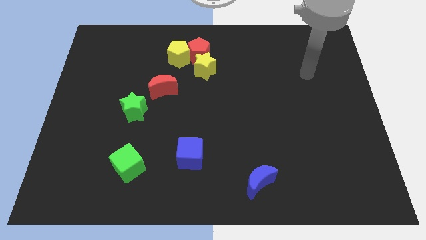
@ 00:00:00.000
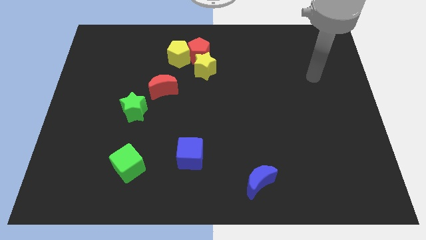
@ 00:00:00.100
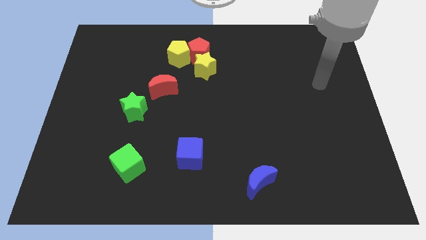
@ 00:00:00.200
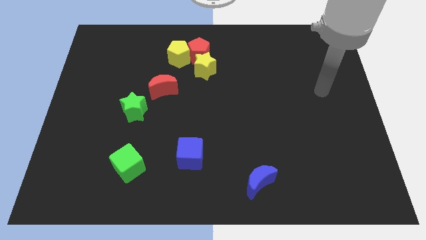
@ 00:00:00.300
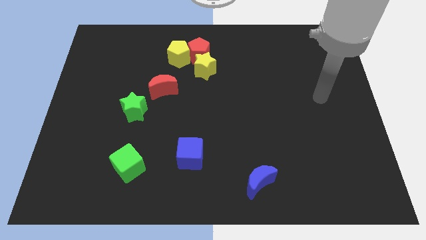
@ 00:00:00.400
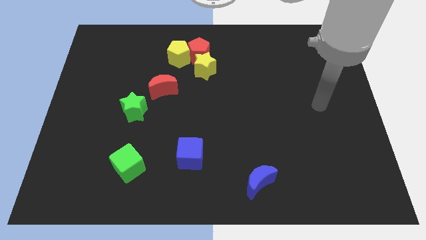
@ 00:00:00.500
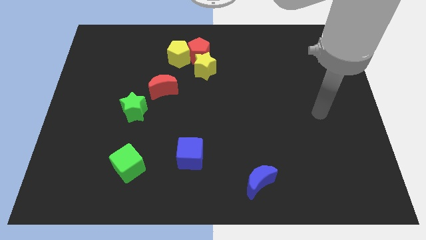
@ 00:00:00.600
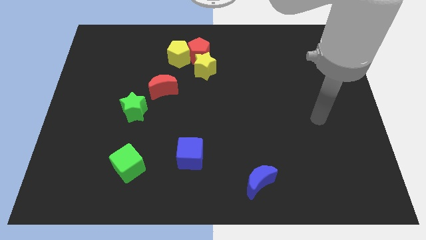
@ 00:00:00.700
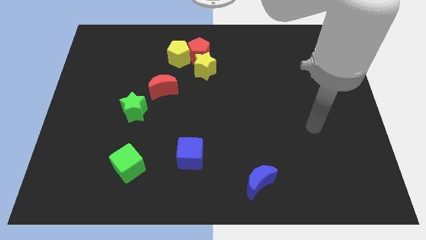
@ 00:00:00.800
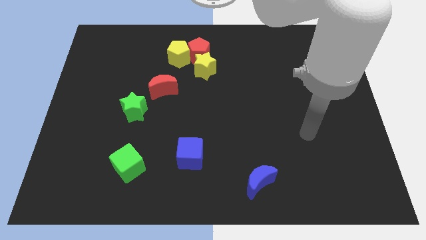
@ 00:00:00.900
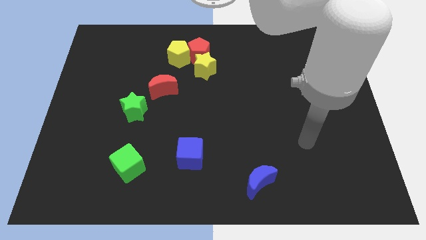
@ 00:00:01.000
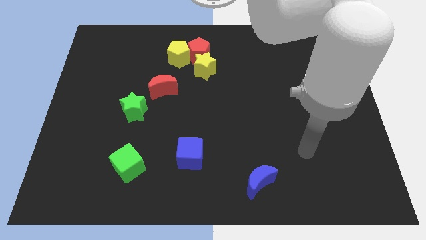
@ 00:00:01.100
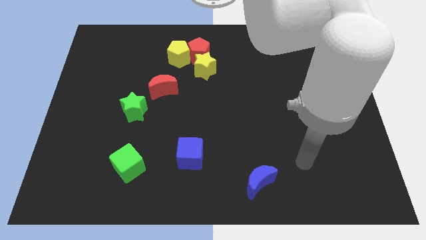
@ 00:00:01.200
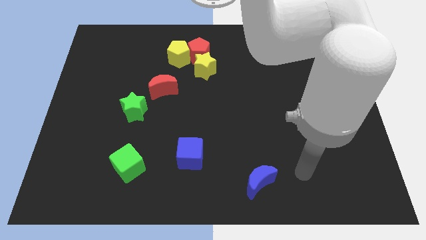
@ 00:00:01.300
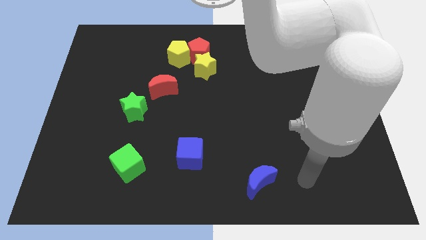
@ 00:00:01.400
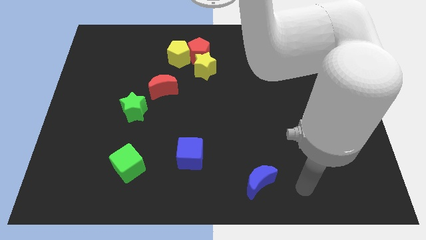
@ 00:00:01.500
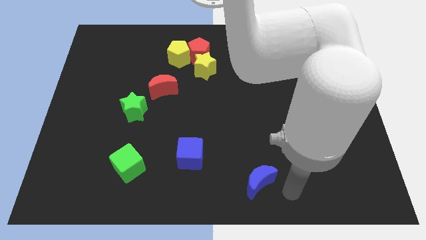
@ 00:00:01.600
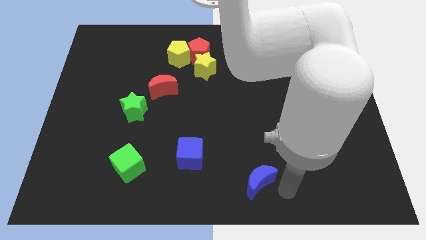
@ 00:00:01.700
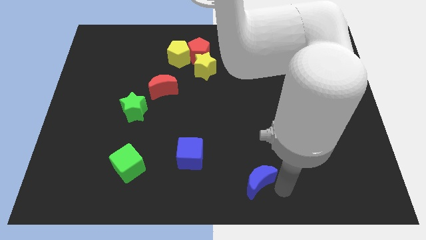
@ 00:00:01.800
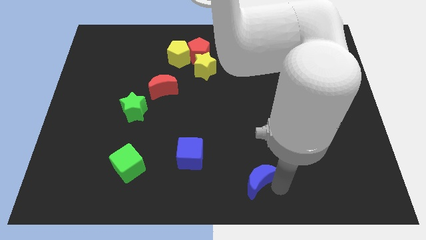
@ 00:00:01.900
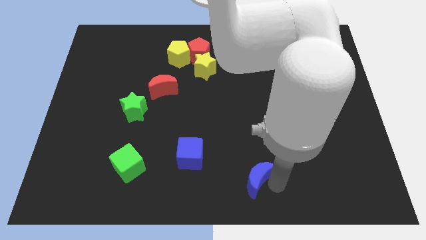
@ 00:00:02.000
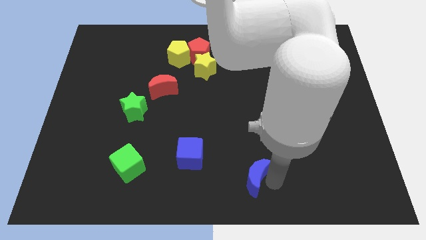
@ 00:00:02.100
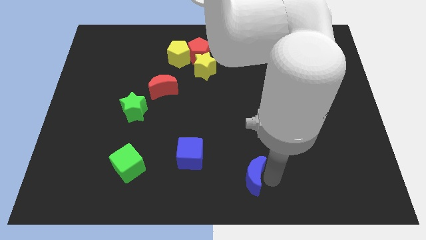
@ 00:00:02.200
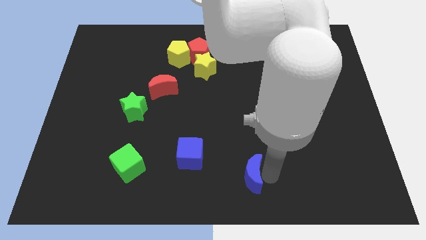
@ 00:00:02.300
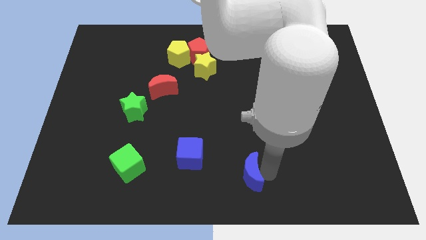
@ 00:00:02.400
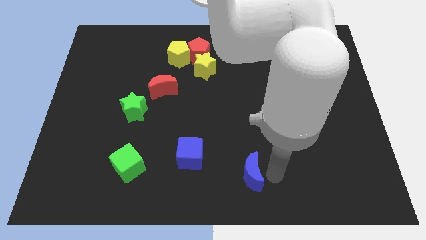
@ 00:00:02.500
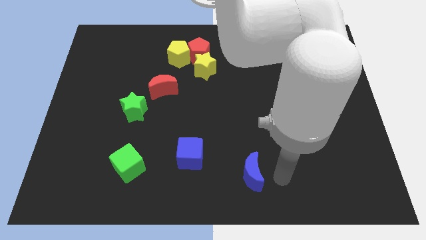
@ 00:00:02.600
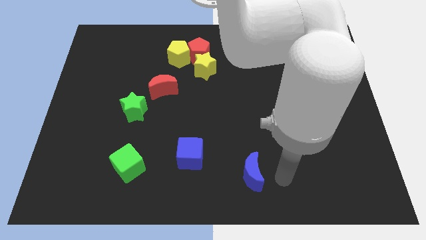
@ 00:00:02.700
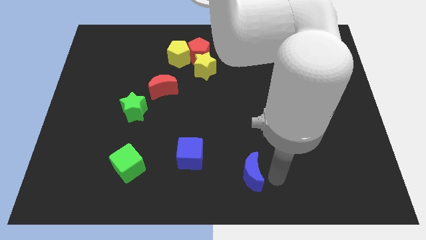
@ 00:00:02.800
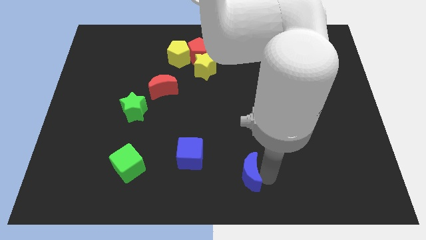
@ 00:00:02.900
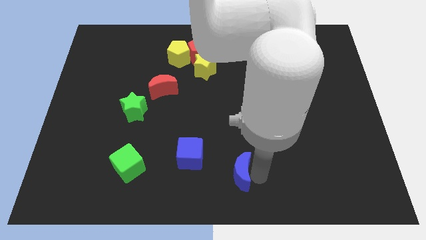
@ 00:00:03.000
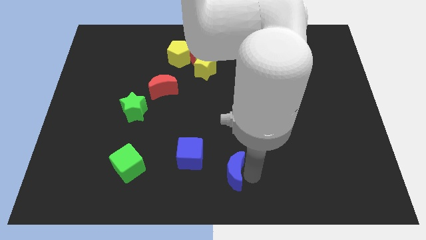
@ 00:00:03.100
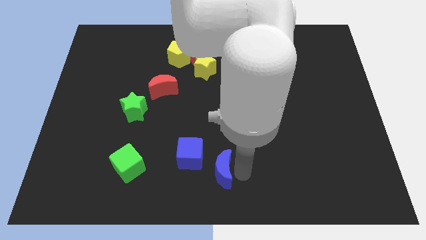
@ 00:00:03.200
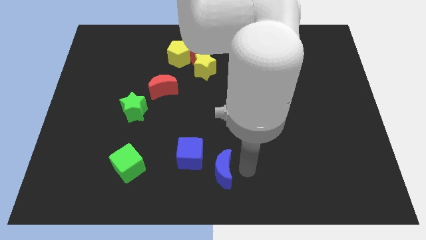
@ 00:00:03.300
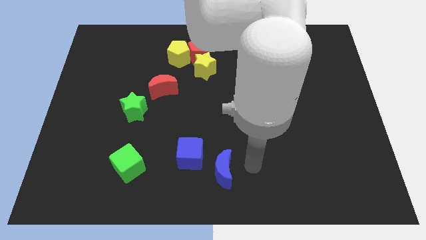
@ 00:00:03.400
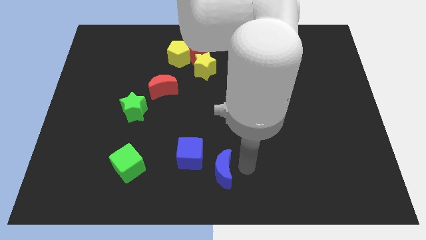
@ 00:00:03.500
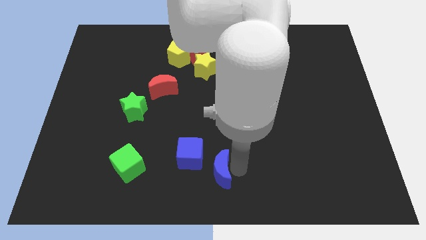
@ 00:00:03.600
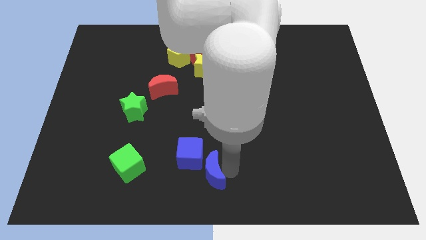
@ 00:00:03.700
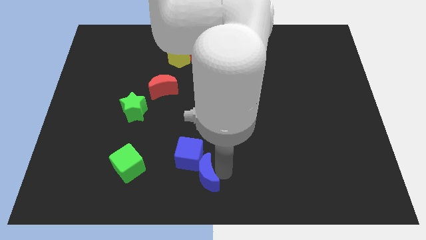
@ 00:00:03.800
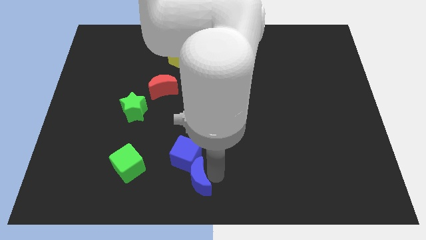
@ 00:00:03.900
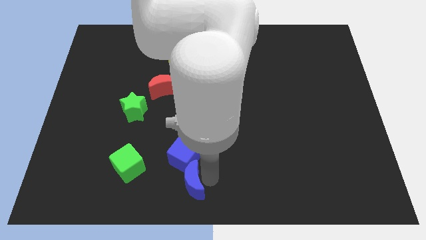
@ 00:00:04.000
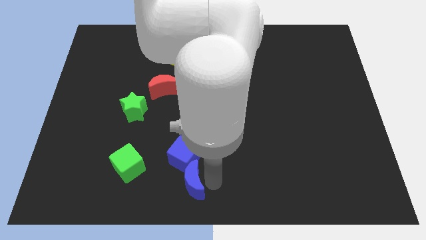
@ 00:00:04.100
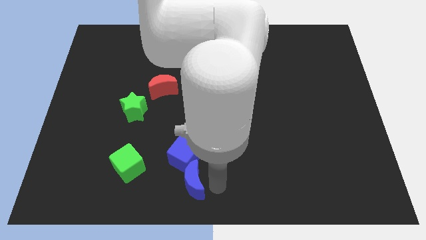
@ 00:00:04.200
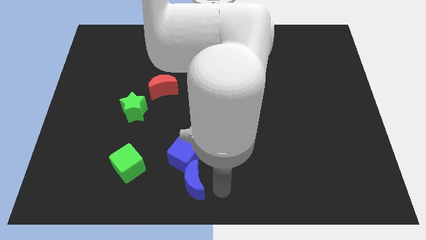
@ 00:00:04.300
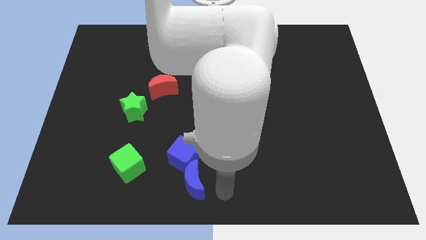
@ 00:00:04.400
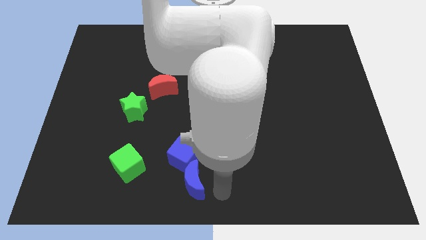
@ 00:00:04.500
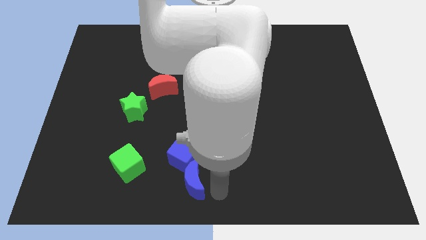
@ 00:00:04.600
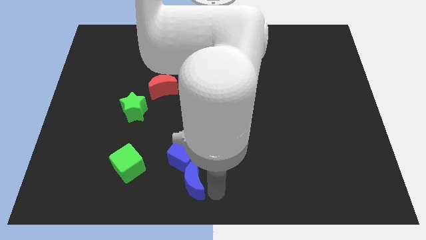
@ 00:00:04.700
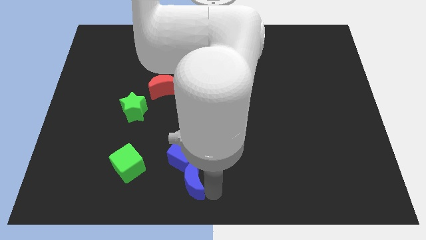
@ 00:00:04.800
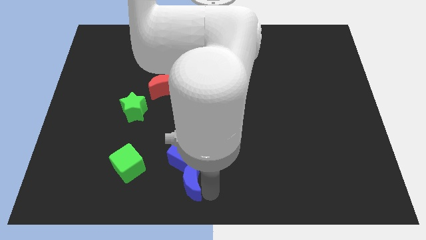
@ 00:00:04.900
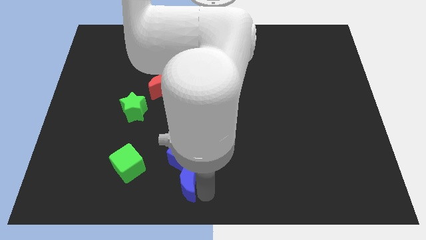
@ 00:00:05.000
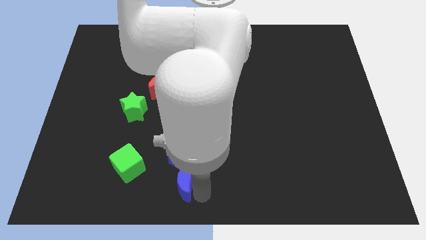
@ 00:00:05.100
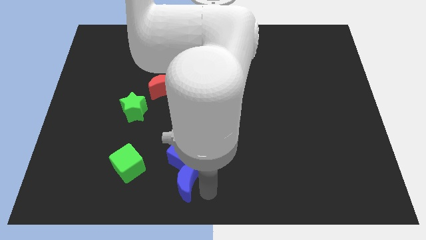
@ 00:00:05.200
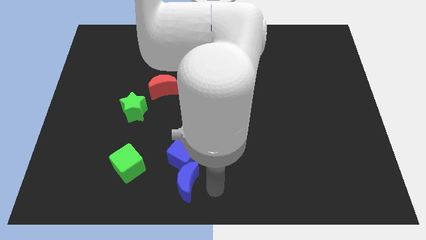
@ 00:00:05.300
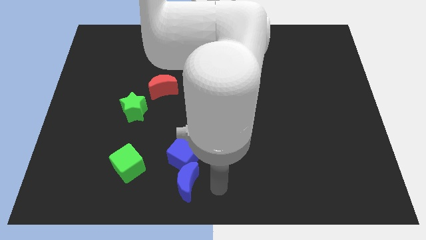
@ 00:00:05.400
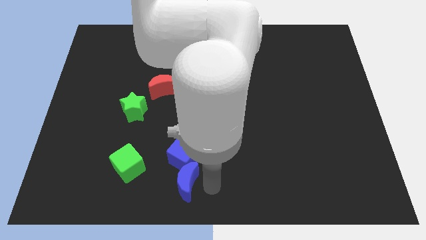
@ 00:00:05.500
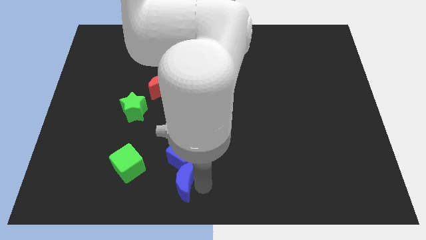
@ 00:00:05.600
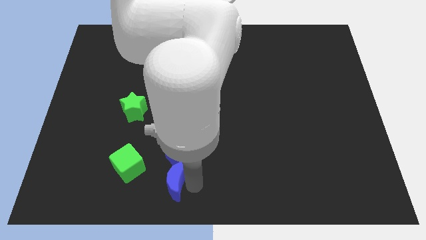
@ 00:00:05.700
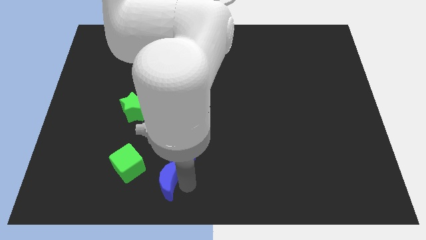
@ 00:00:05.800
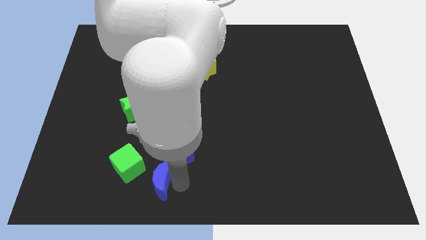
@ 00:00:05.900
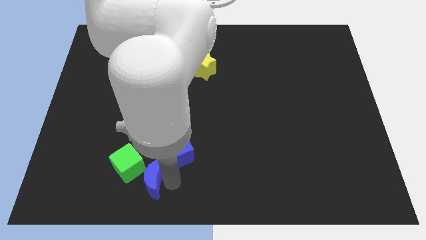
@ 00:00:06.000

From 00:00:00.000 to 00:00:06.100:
push the blue moon left

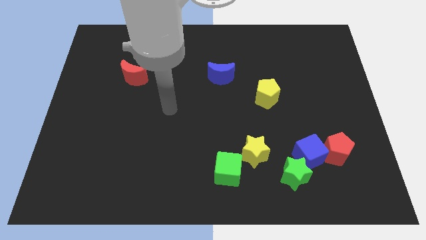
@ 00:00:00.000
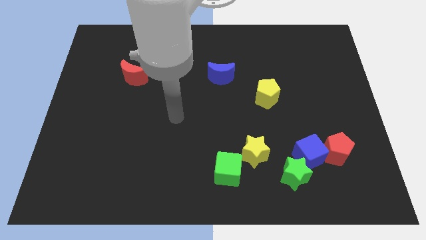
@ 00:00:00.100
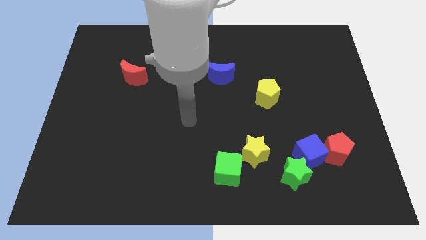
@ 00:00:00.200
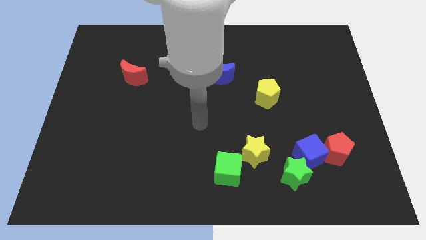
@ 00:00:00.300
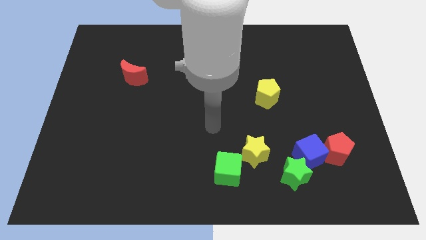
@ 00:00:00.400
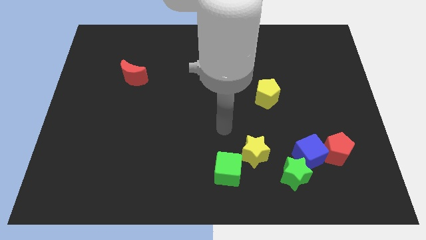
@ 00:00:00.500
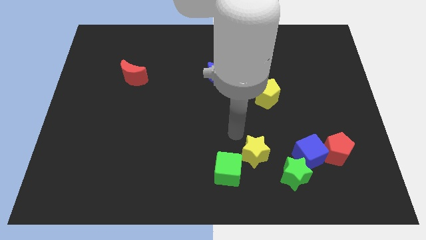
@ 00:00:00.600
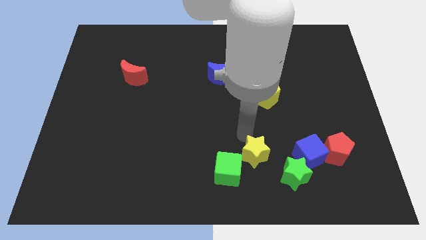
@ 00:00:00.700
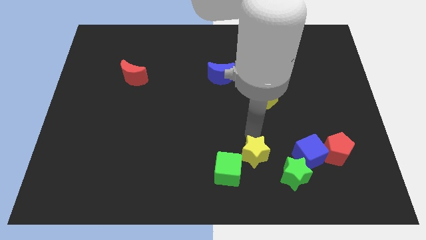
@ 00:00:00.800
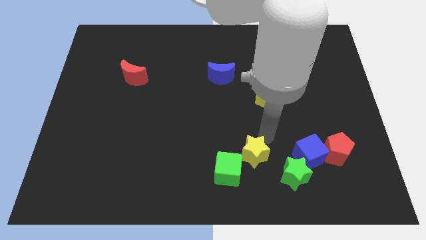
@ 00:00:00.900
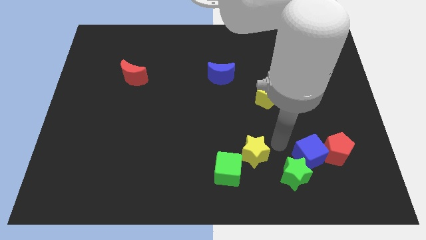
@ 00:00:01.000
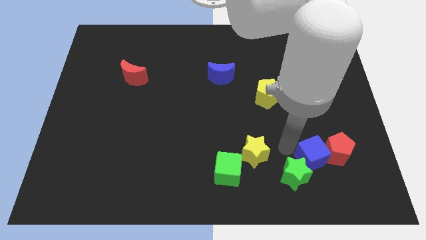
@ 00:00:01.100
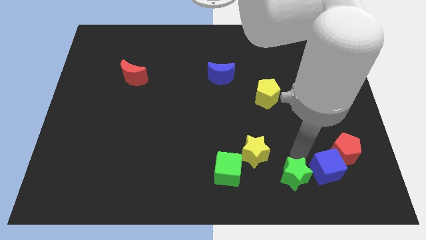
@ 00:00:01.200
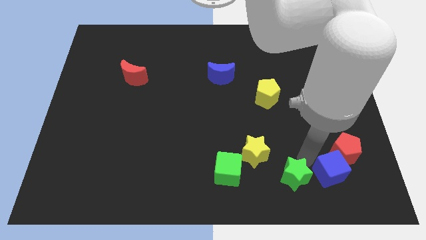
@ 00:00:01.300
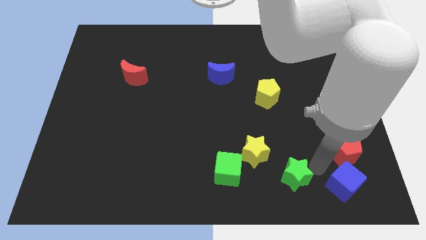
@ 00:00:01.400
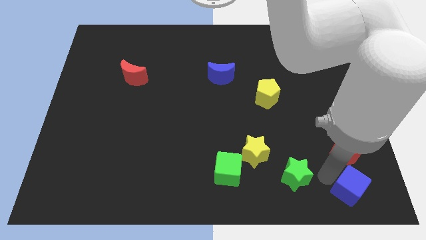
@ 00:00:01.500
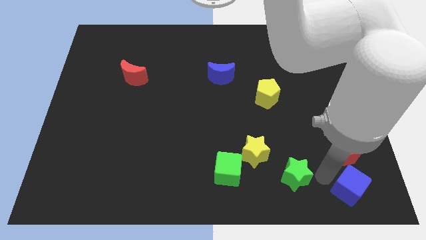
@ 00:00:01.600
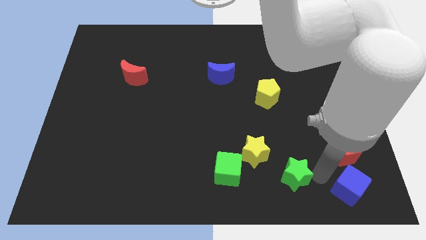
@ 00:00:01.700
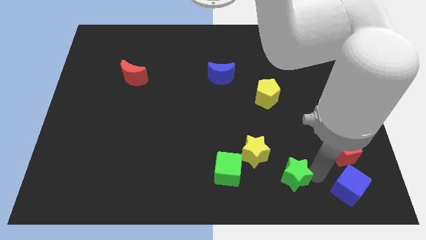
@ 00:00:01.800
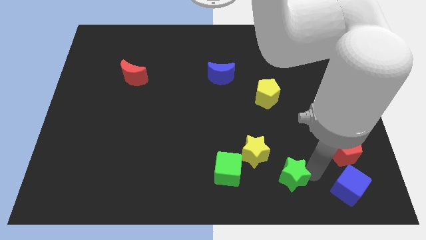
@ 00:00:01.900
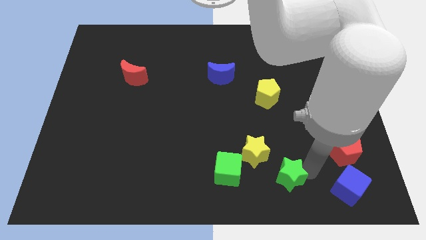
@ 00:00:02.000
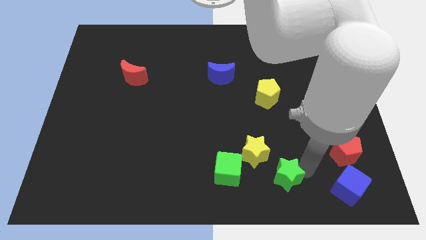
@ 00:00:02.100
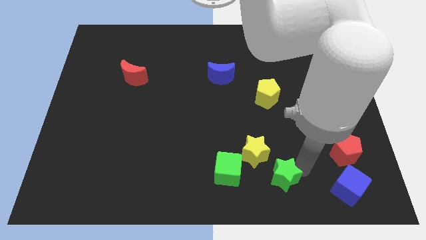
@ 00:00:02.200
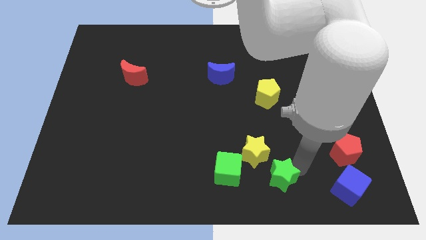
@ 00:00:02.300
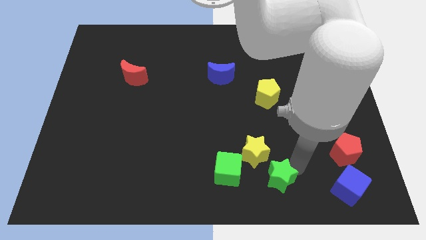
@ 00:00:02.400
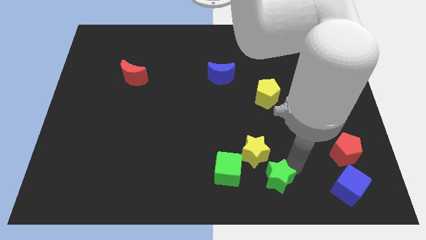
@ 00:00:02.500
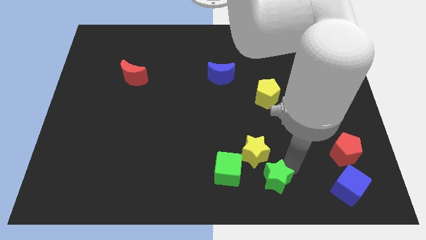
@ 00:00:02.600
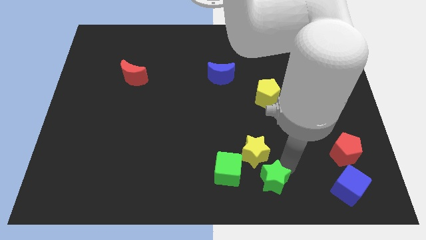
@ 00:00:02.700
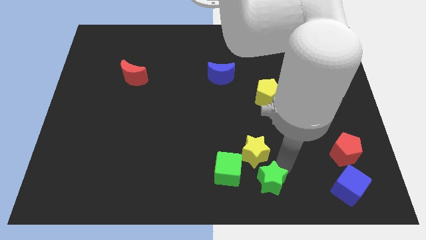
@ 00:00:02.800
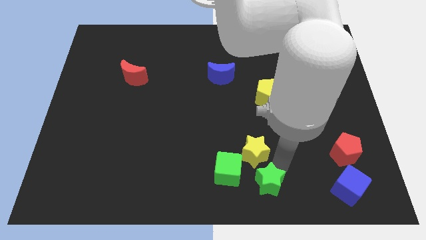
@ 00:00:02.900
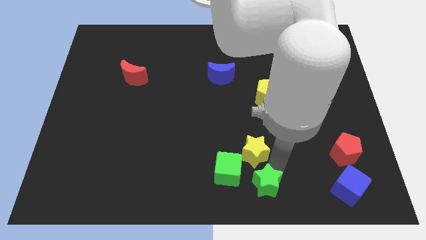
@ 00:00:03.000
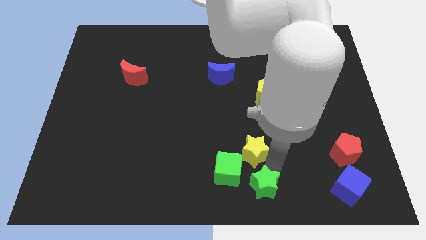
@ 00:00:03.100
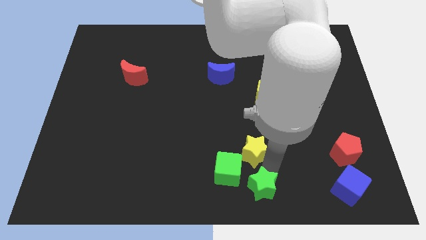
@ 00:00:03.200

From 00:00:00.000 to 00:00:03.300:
slightly push the green star to the left
